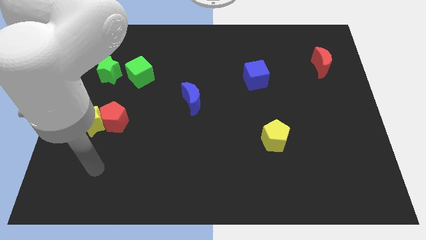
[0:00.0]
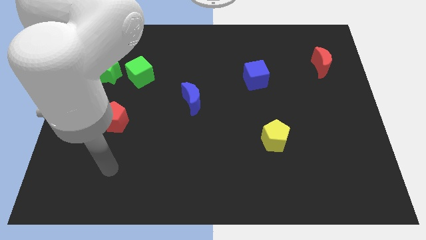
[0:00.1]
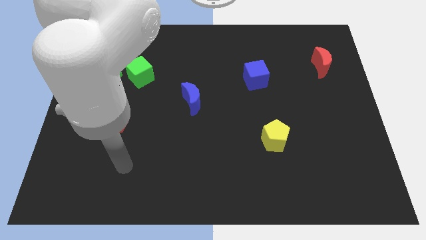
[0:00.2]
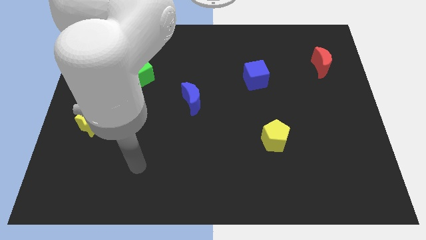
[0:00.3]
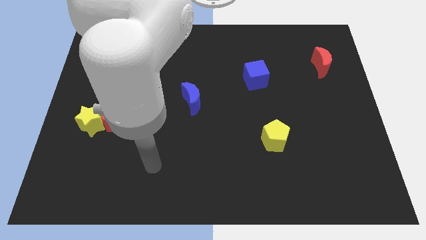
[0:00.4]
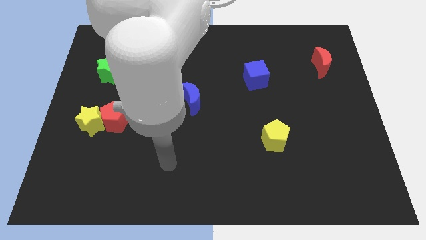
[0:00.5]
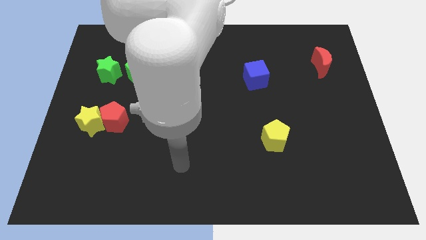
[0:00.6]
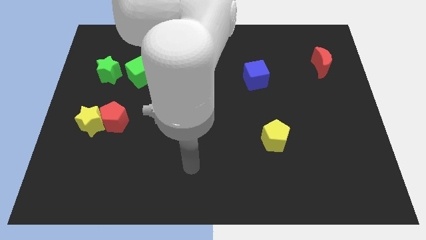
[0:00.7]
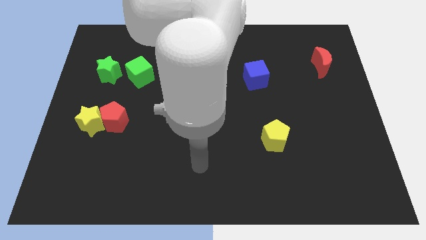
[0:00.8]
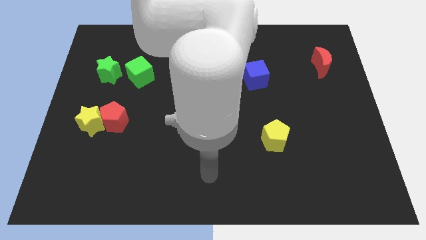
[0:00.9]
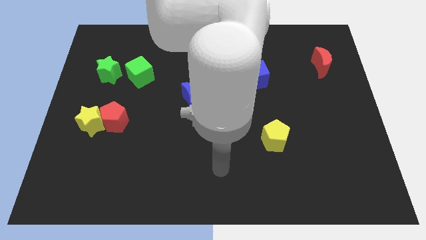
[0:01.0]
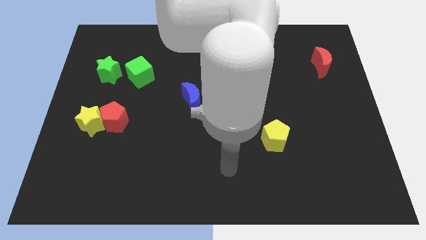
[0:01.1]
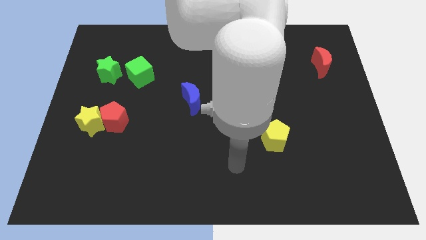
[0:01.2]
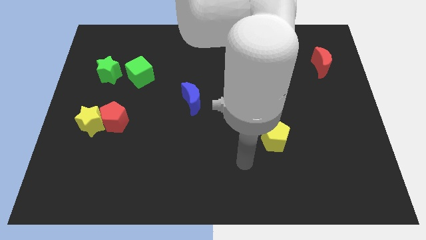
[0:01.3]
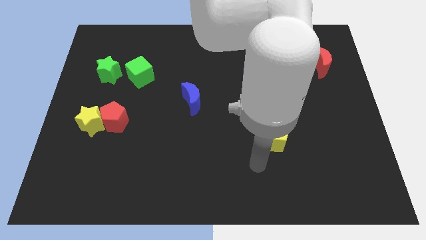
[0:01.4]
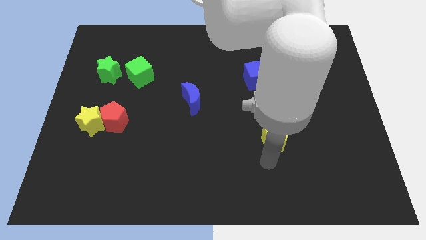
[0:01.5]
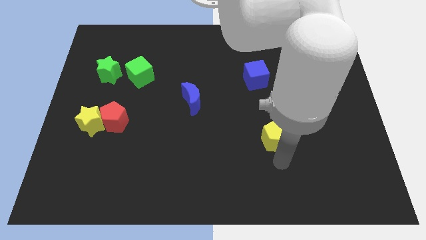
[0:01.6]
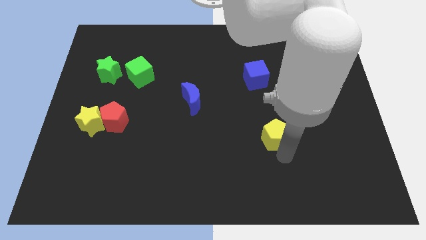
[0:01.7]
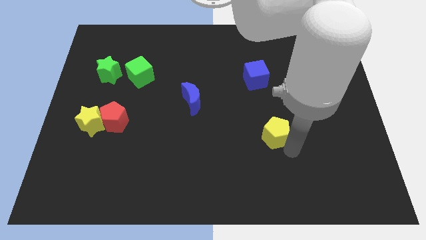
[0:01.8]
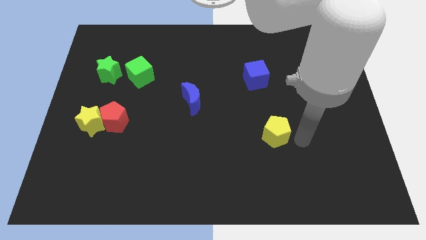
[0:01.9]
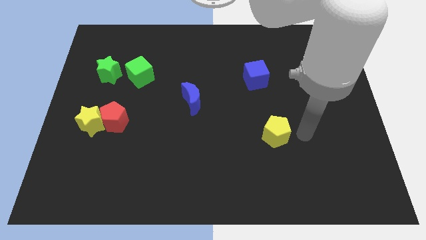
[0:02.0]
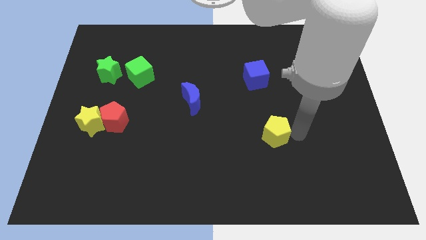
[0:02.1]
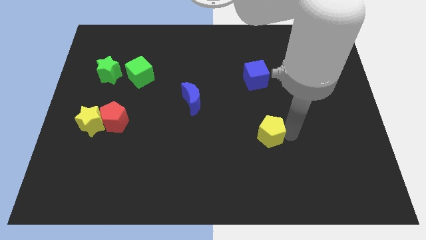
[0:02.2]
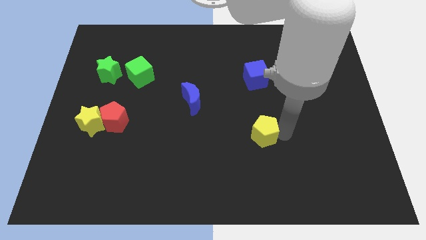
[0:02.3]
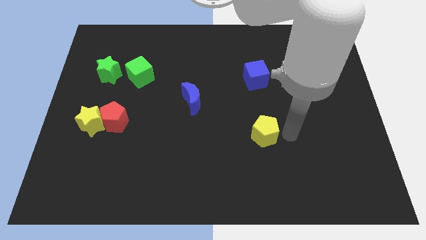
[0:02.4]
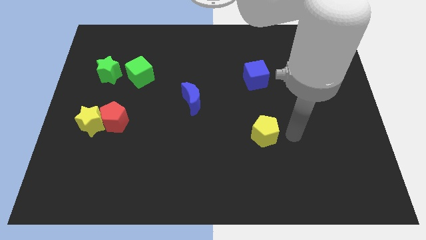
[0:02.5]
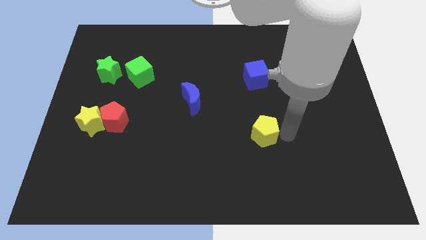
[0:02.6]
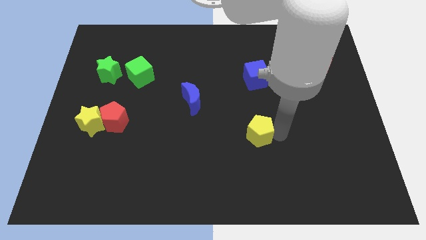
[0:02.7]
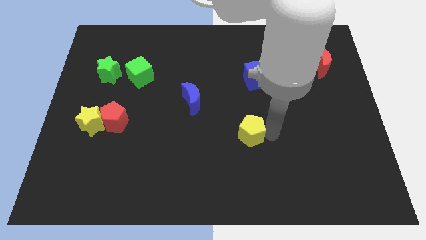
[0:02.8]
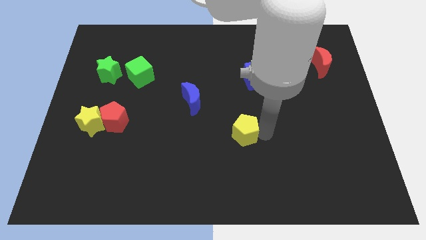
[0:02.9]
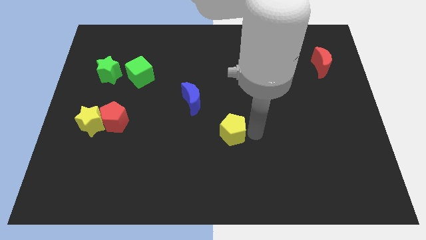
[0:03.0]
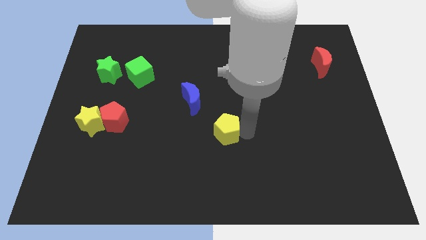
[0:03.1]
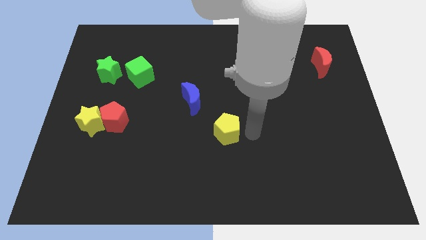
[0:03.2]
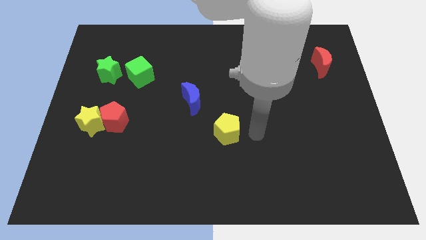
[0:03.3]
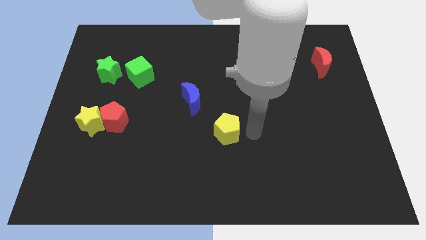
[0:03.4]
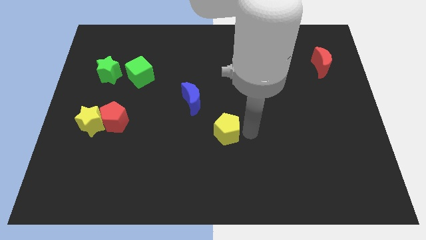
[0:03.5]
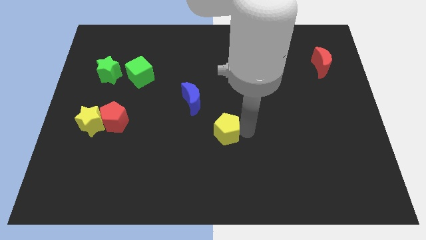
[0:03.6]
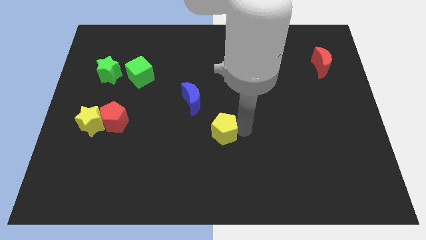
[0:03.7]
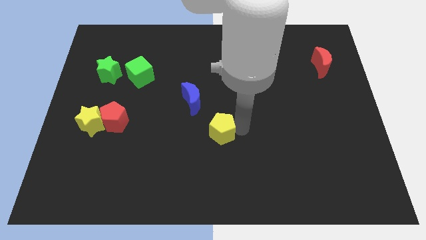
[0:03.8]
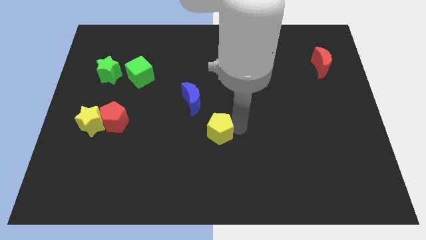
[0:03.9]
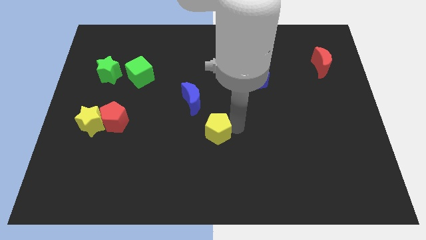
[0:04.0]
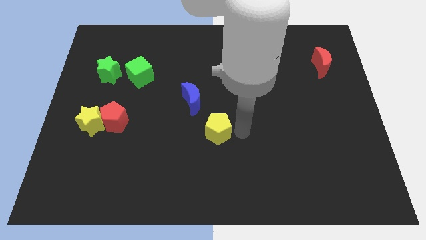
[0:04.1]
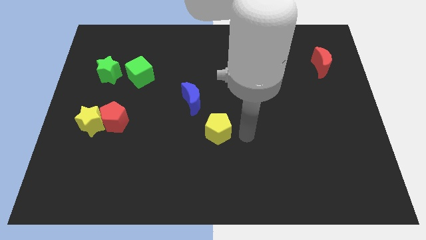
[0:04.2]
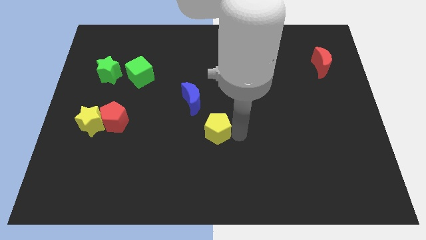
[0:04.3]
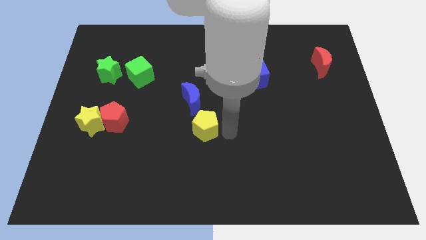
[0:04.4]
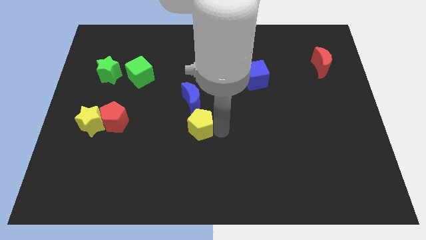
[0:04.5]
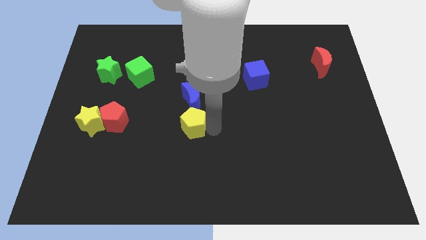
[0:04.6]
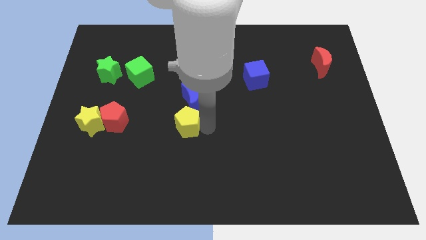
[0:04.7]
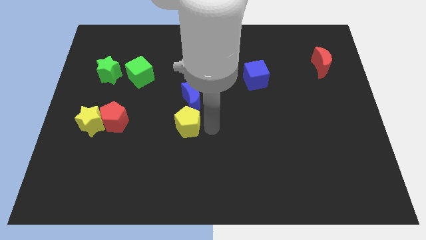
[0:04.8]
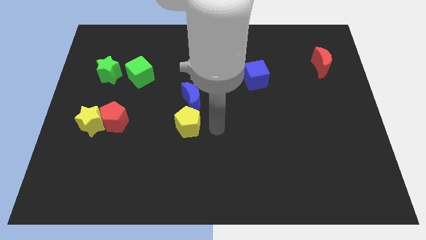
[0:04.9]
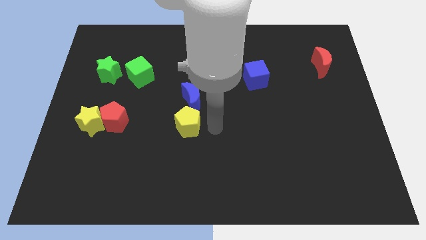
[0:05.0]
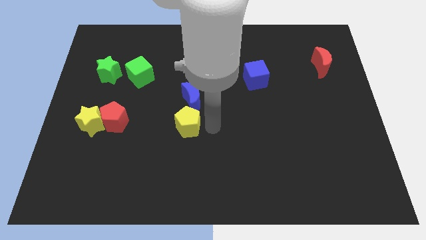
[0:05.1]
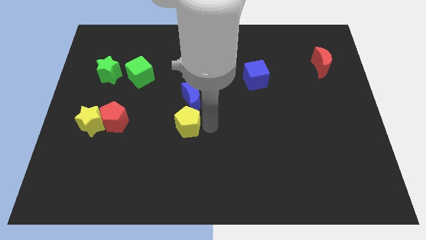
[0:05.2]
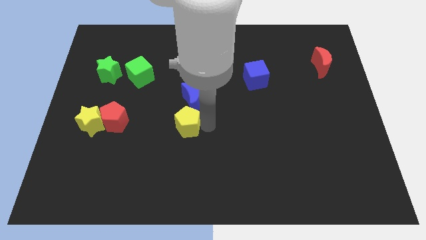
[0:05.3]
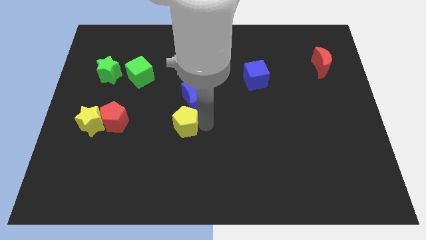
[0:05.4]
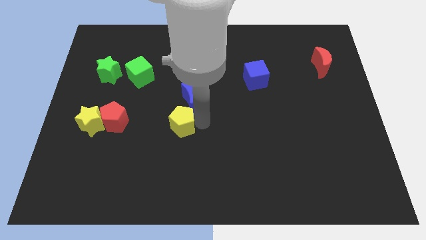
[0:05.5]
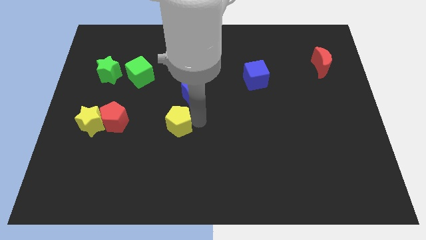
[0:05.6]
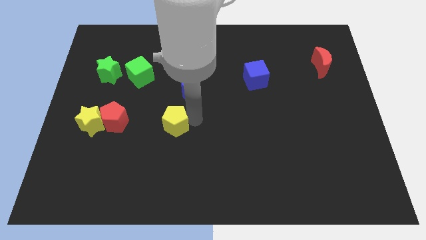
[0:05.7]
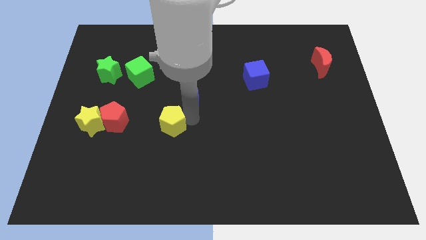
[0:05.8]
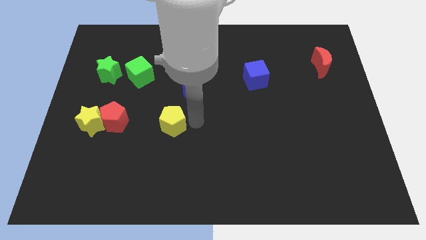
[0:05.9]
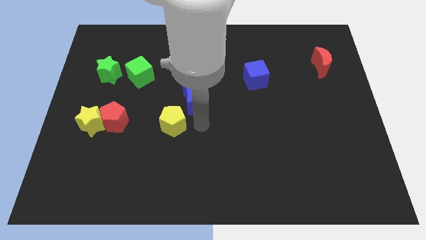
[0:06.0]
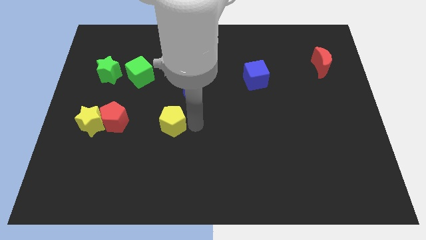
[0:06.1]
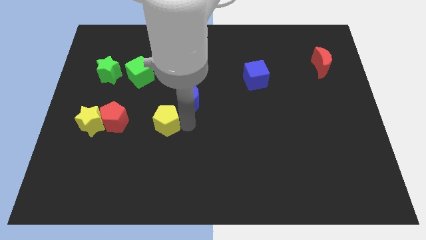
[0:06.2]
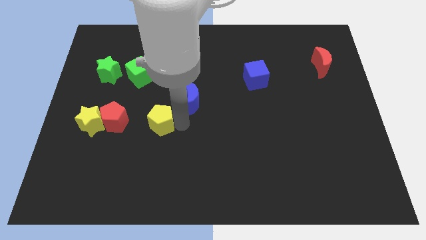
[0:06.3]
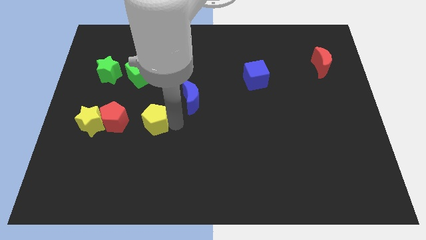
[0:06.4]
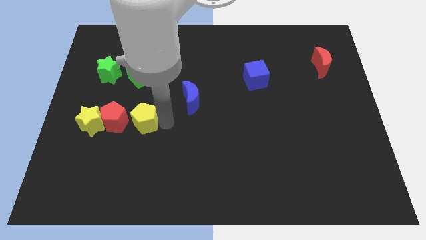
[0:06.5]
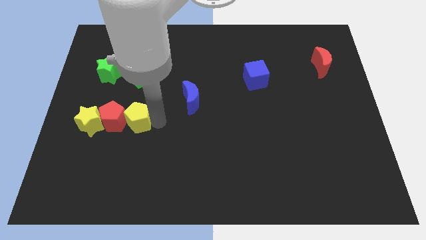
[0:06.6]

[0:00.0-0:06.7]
slide the yellow pentagon next to the red pentagon
